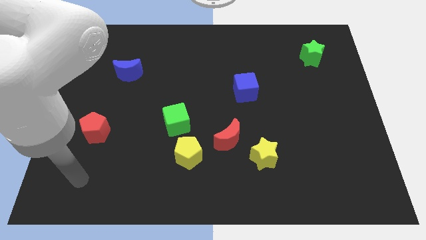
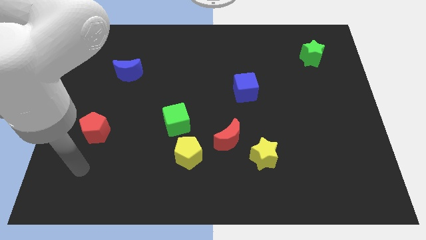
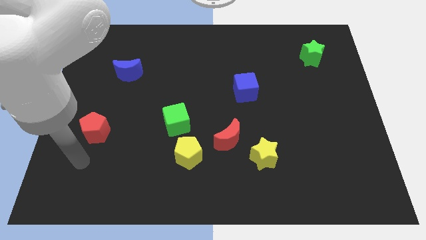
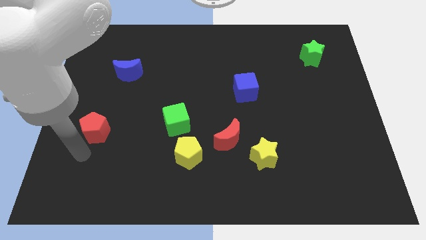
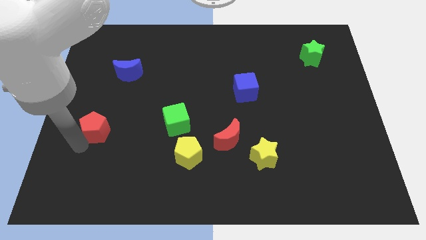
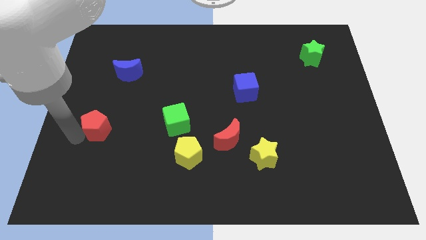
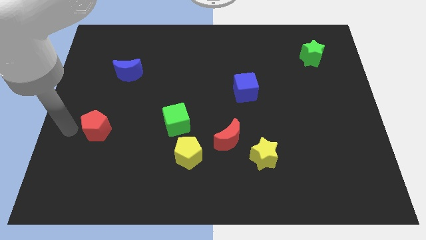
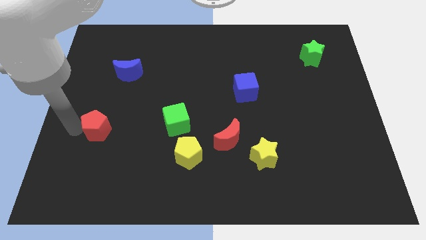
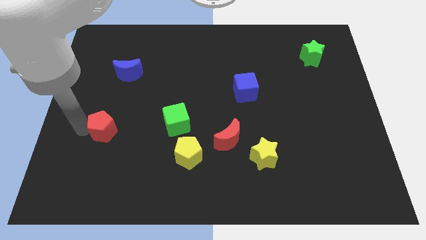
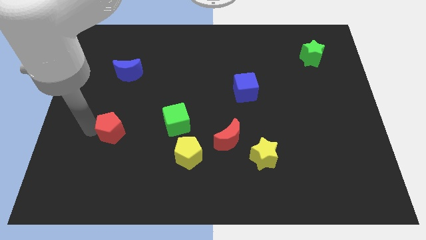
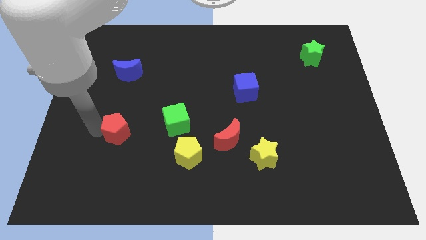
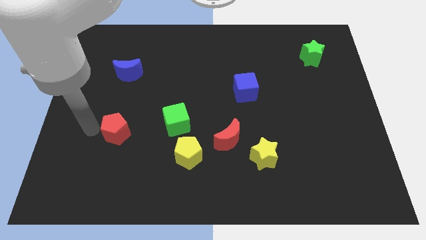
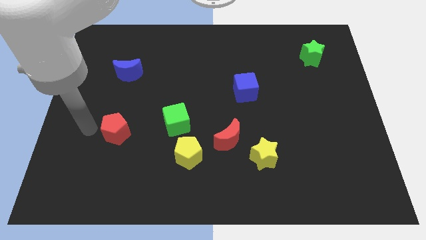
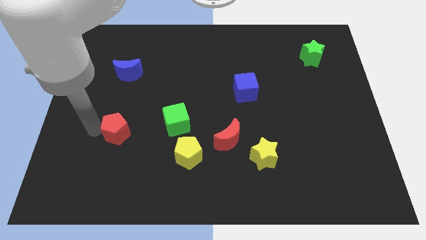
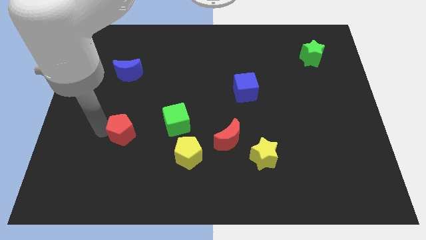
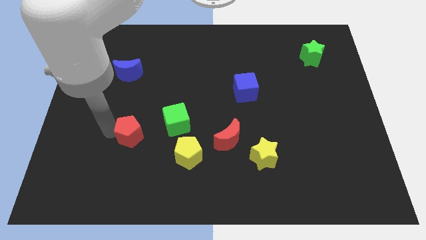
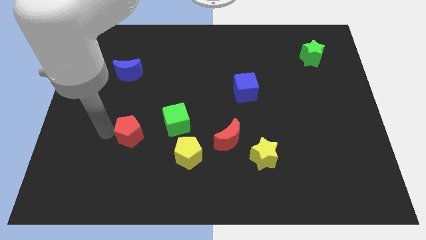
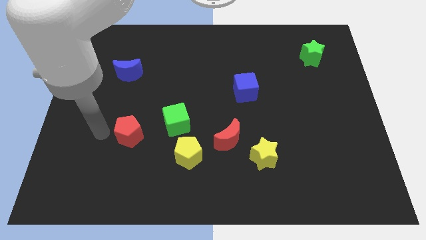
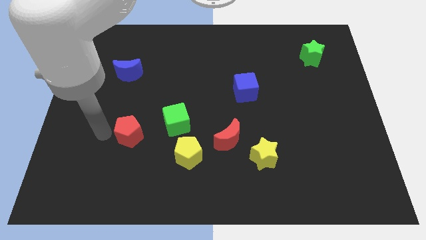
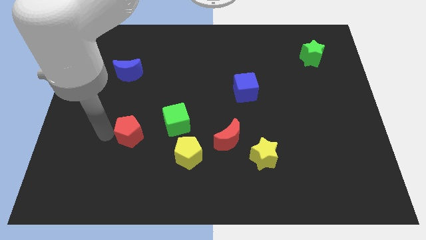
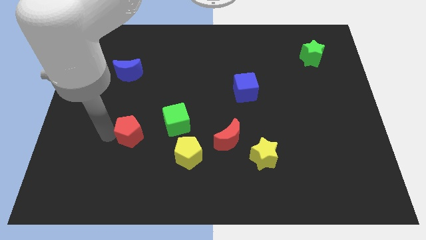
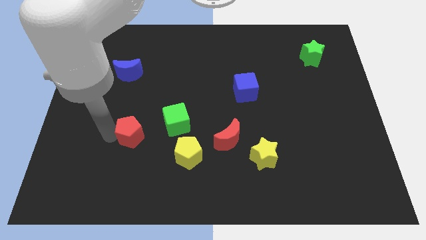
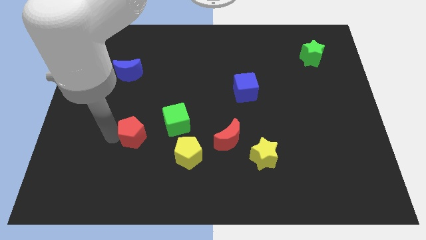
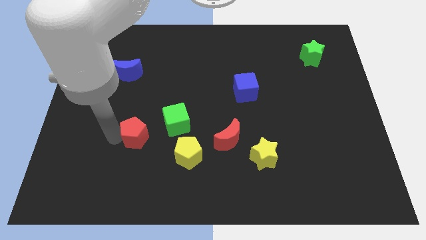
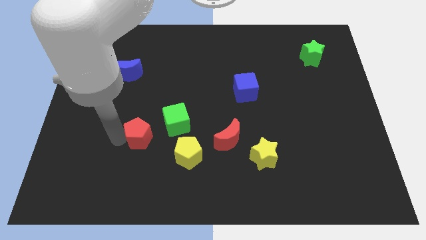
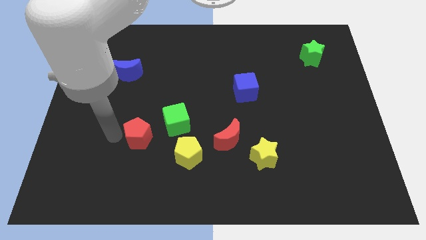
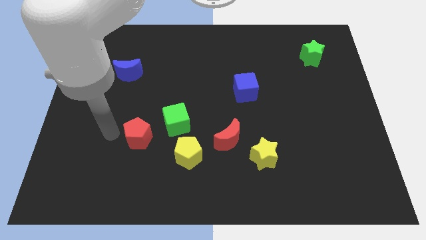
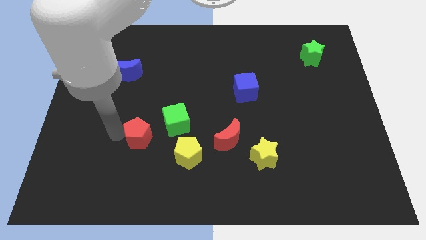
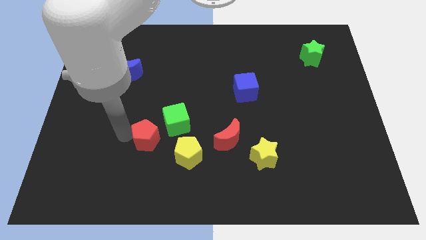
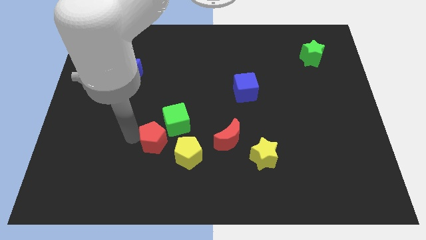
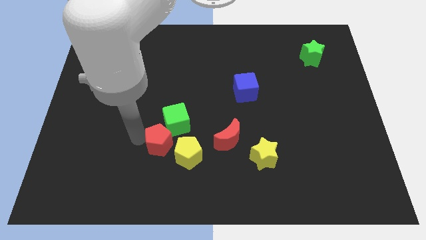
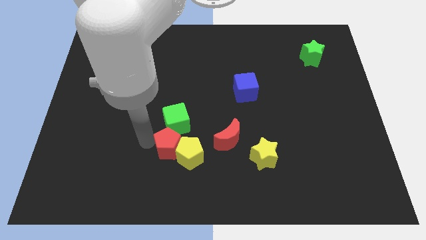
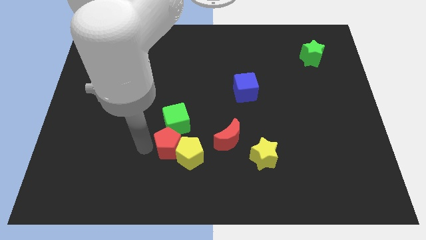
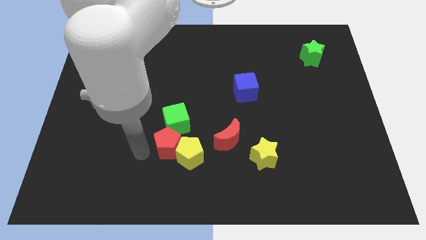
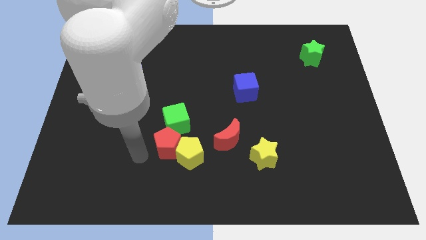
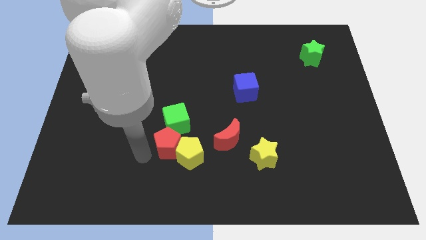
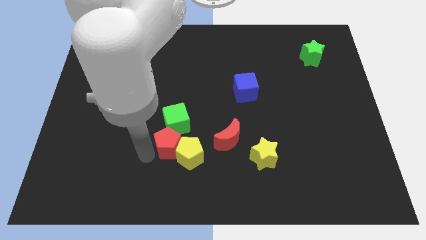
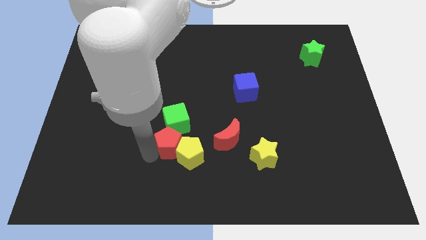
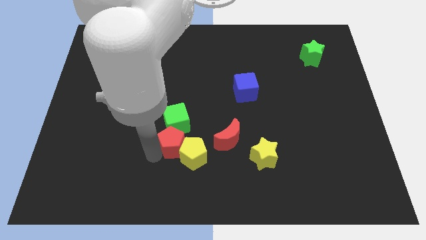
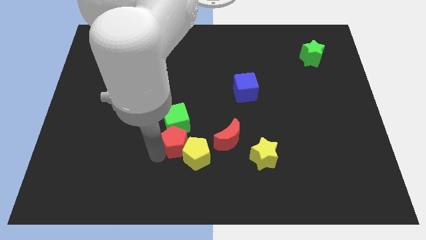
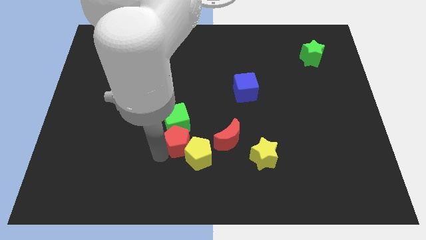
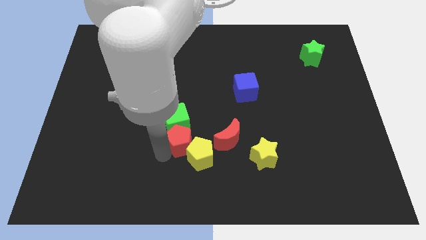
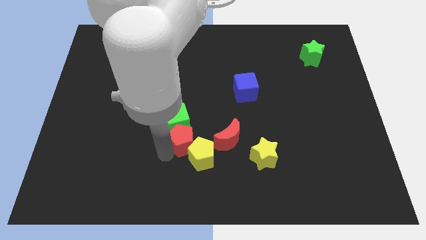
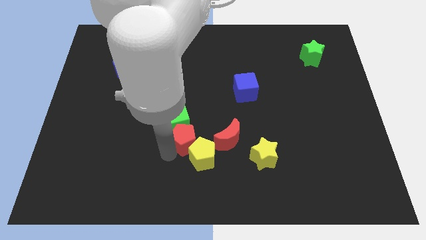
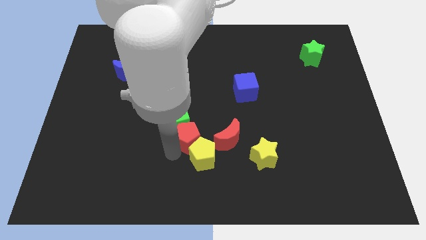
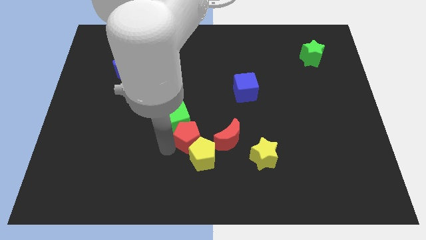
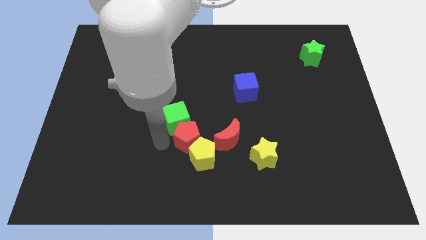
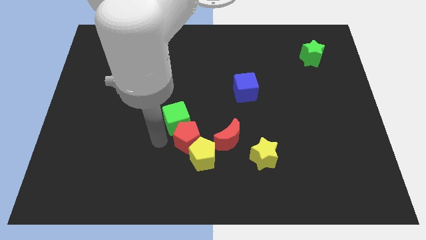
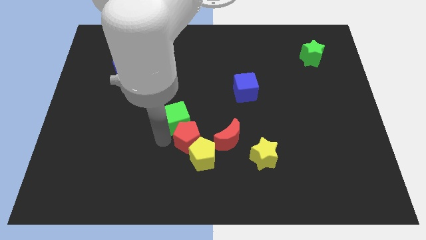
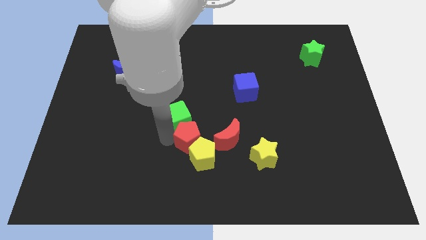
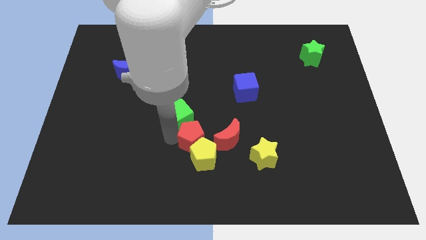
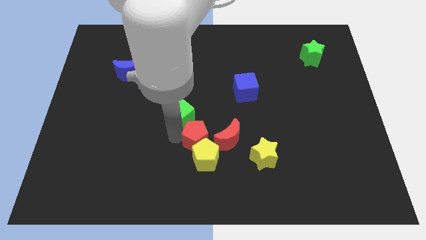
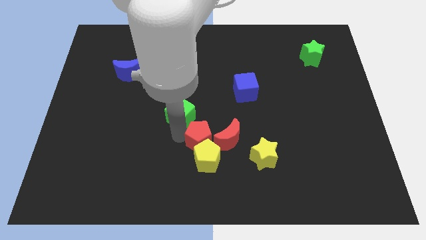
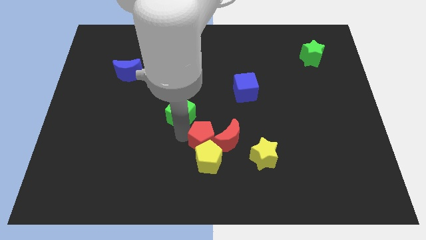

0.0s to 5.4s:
put the red pentagon towards the red moon

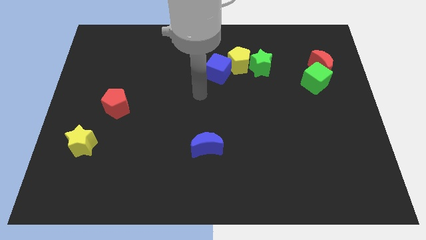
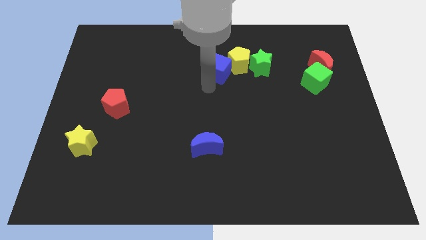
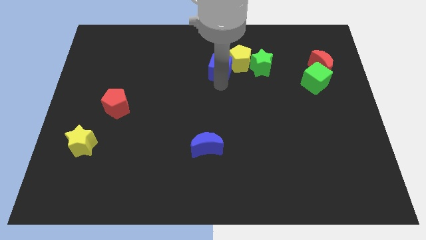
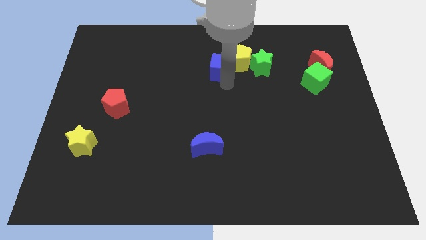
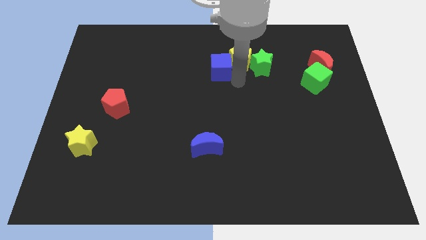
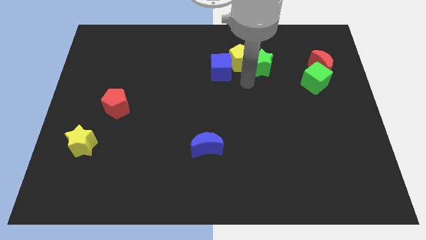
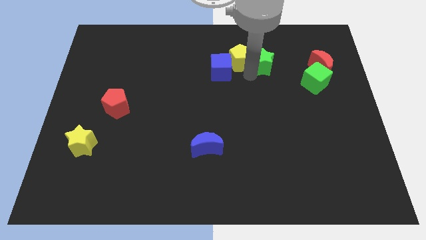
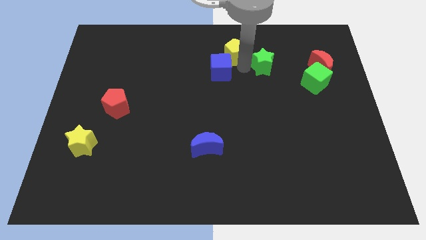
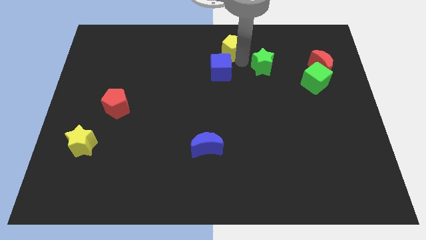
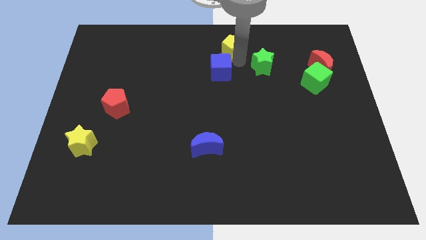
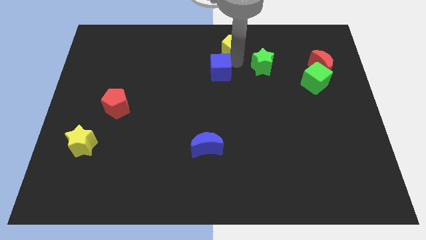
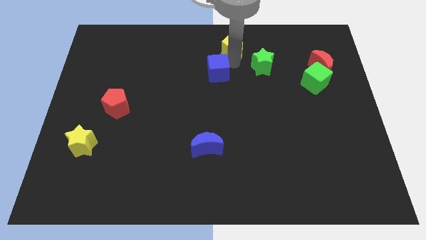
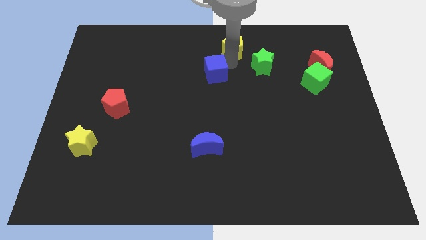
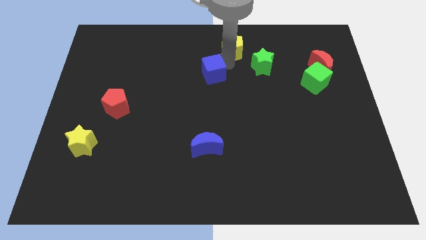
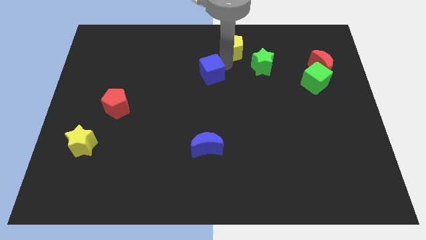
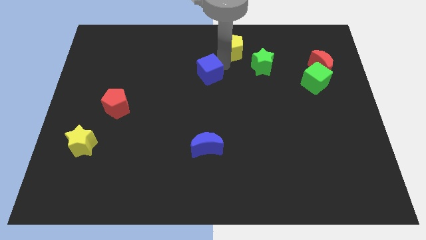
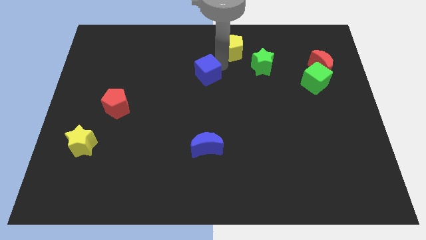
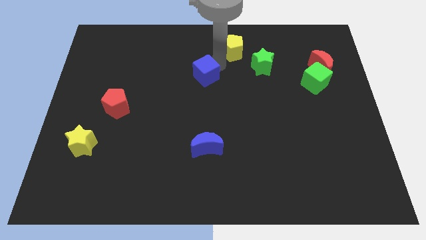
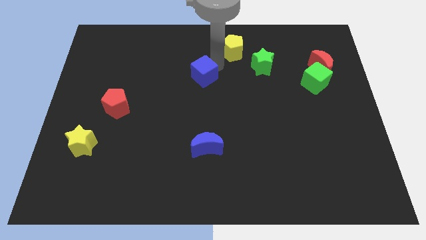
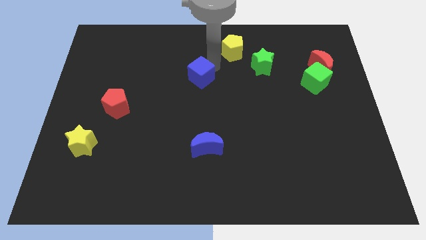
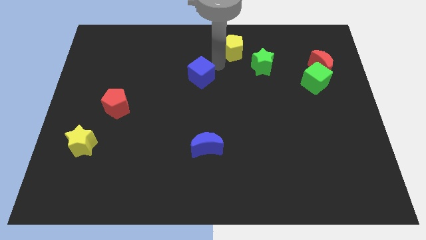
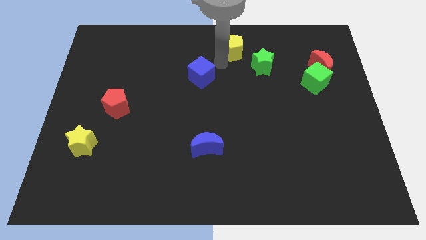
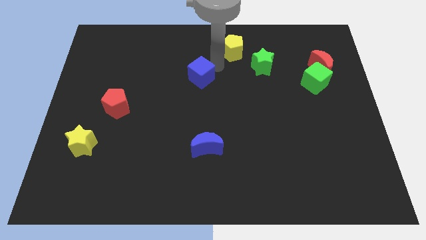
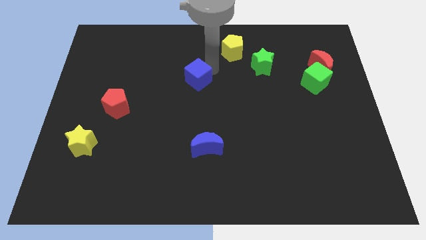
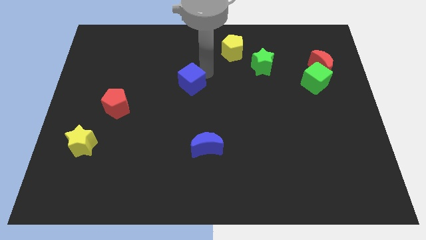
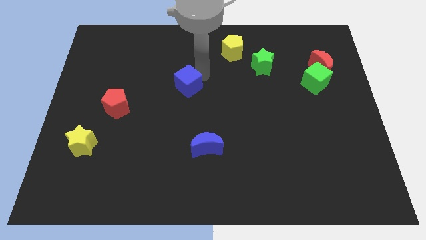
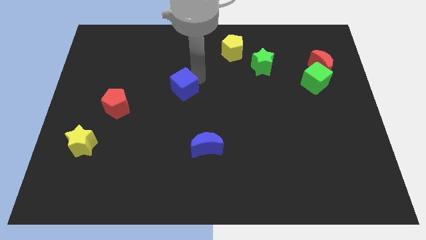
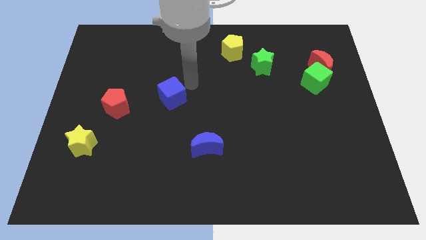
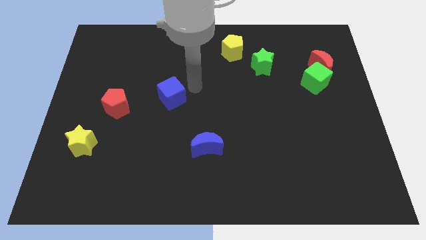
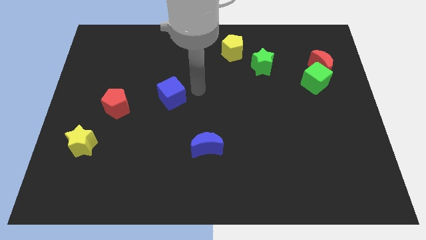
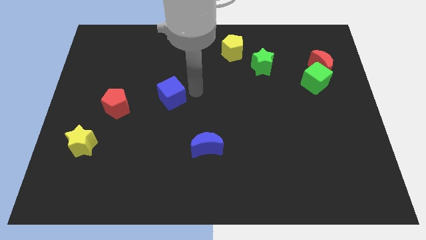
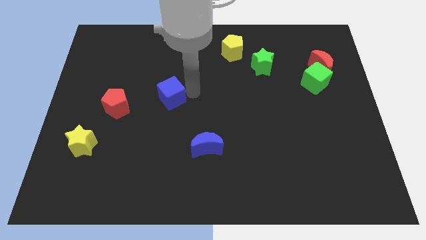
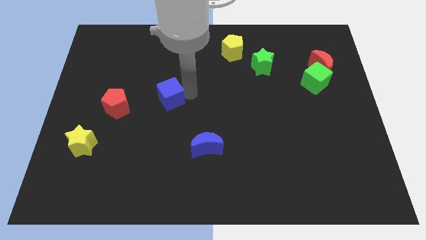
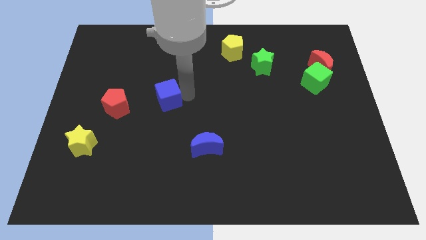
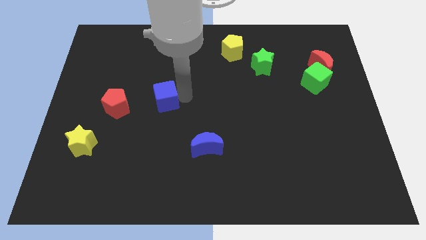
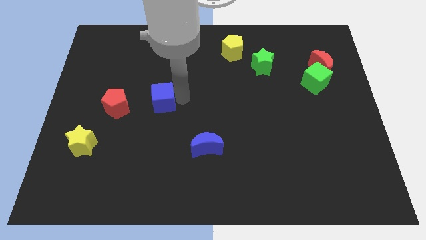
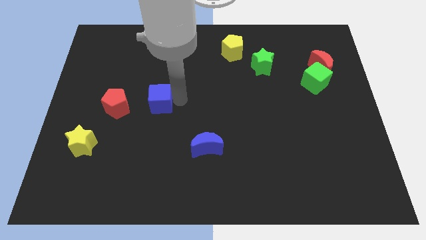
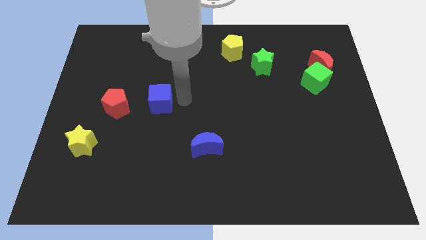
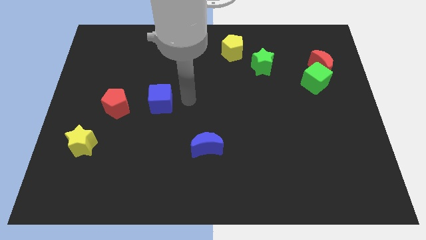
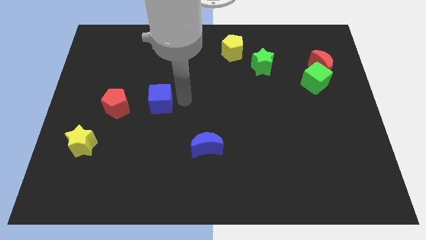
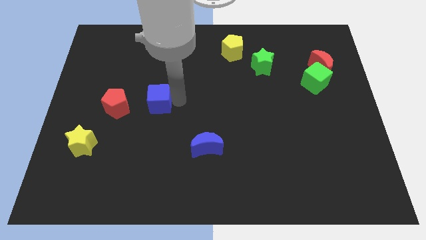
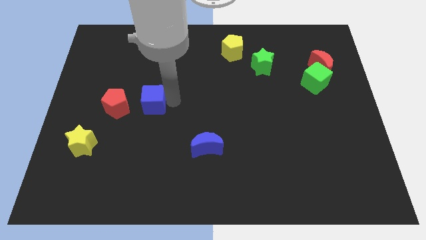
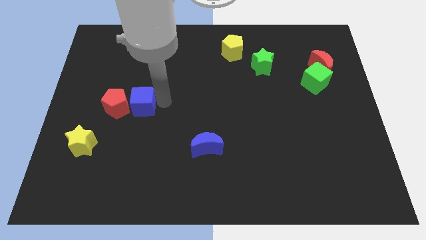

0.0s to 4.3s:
push the blue cube next to the red pentagon
